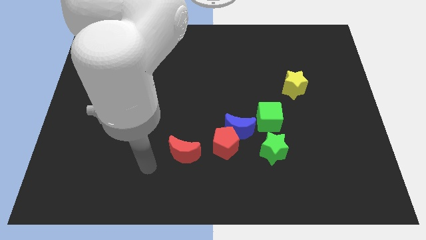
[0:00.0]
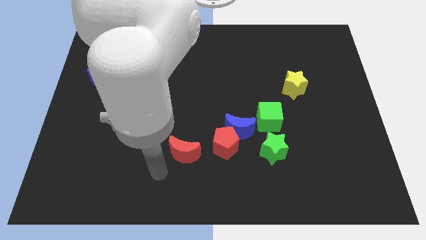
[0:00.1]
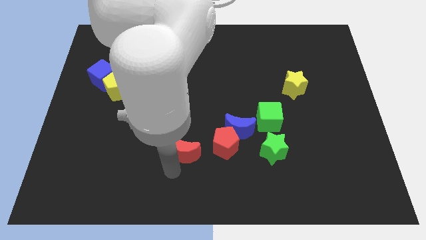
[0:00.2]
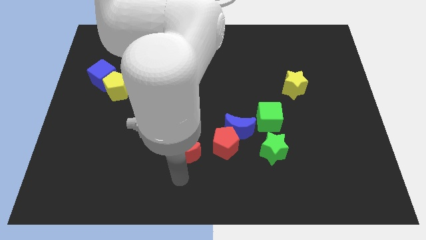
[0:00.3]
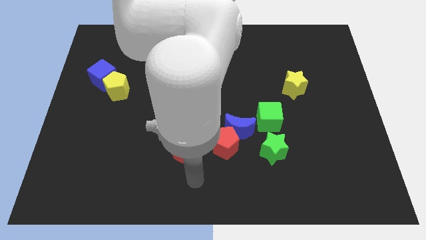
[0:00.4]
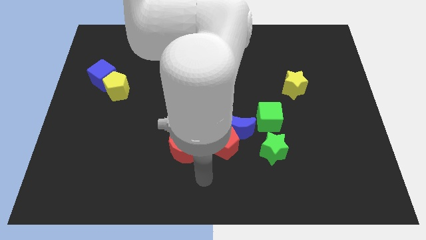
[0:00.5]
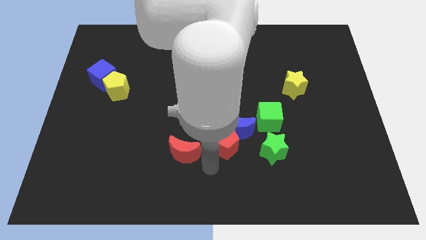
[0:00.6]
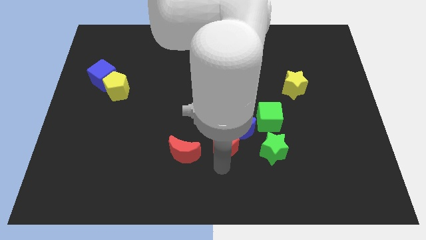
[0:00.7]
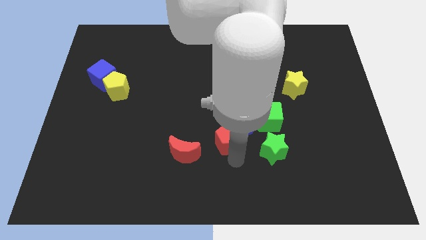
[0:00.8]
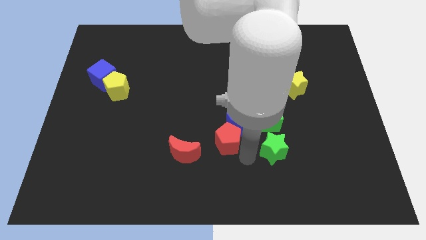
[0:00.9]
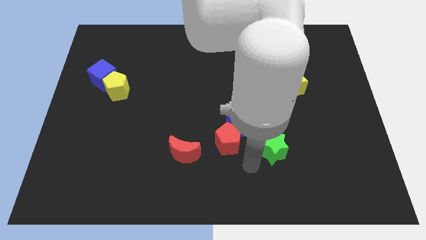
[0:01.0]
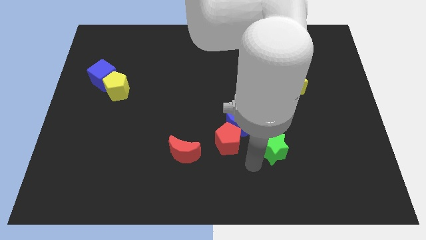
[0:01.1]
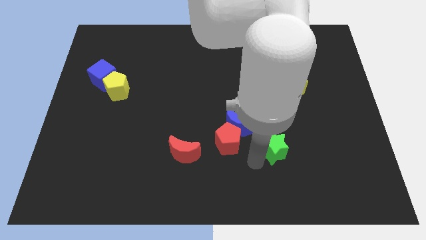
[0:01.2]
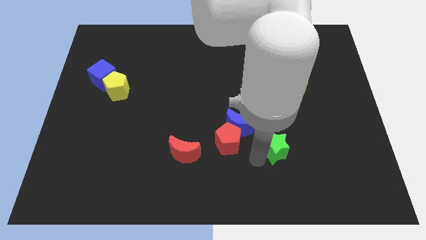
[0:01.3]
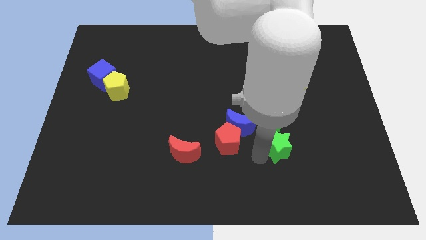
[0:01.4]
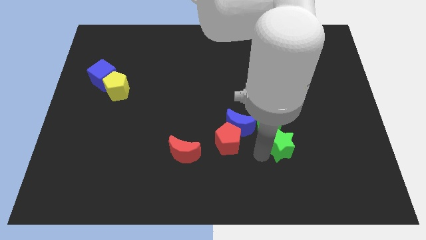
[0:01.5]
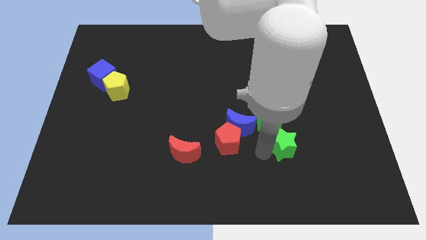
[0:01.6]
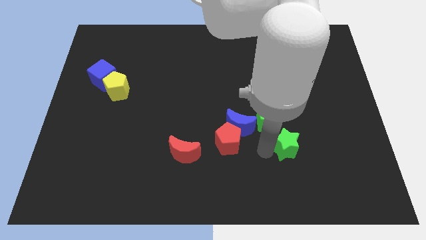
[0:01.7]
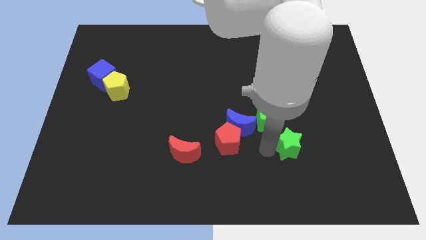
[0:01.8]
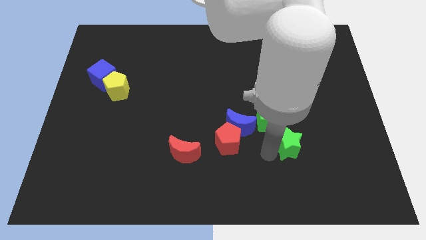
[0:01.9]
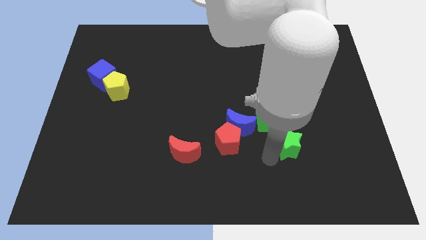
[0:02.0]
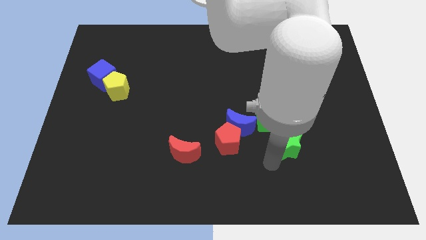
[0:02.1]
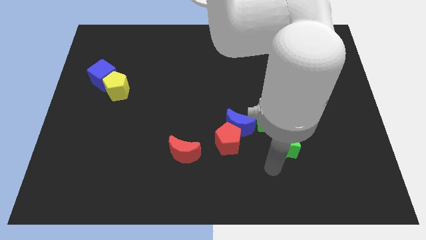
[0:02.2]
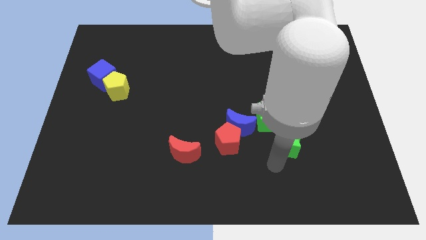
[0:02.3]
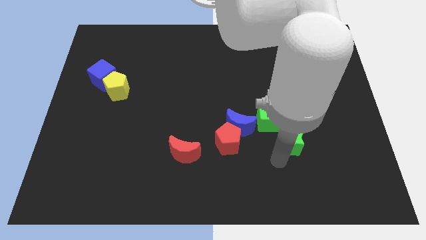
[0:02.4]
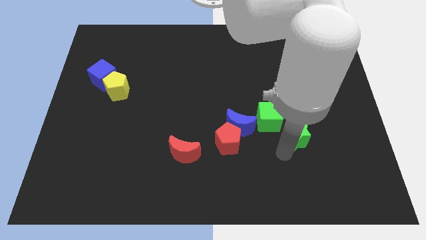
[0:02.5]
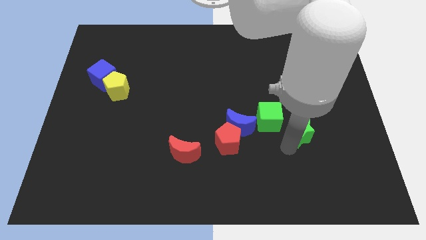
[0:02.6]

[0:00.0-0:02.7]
slightly slide the green star up and to the right diagonally

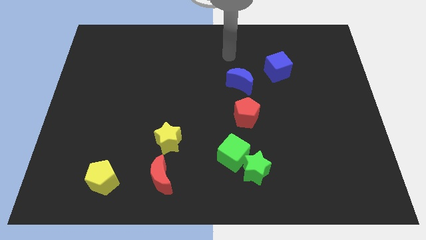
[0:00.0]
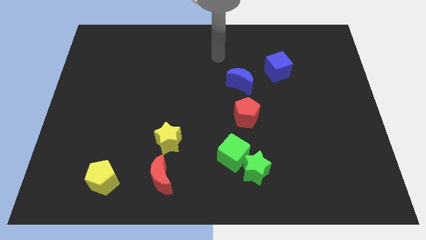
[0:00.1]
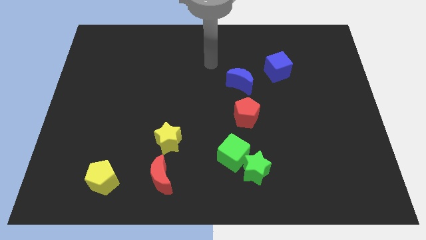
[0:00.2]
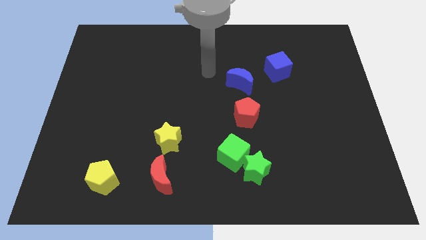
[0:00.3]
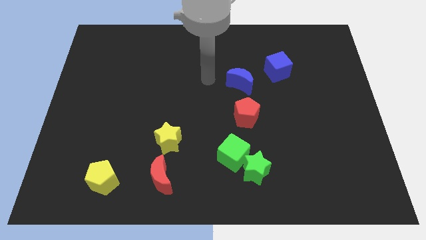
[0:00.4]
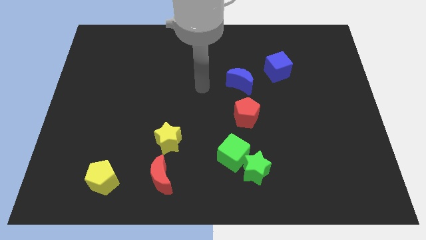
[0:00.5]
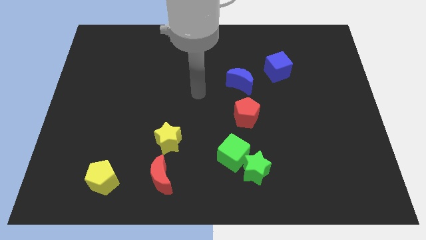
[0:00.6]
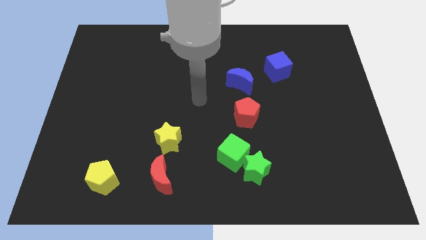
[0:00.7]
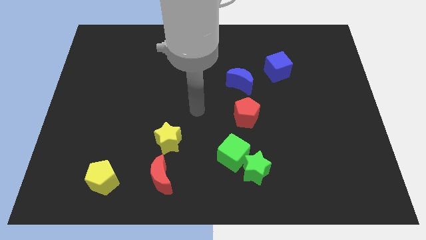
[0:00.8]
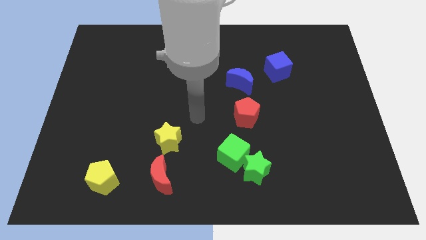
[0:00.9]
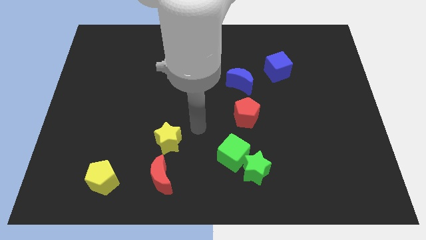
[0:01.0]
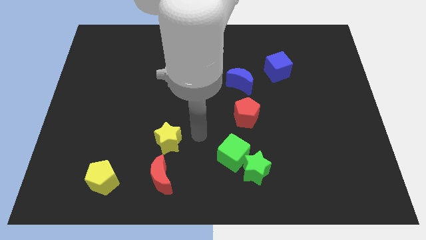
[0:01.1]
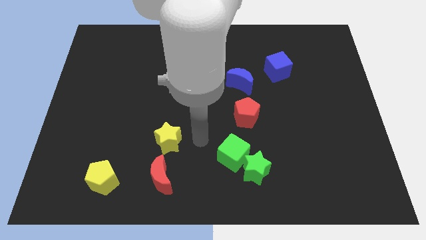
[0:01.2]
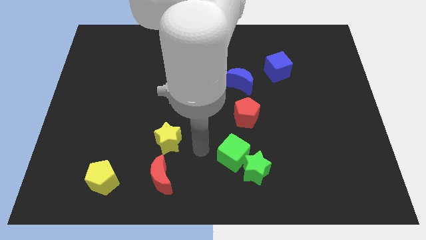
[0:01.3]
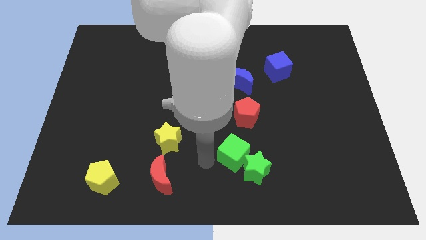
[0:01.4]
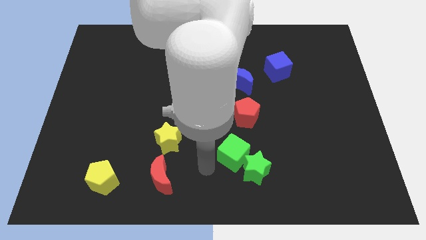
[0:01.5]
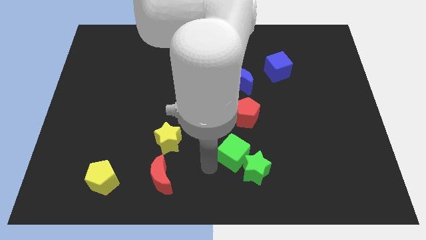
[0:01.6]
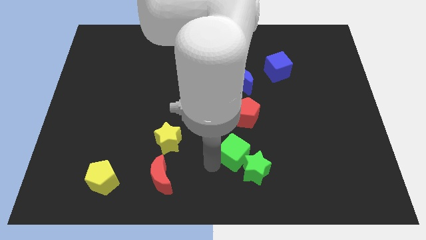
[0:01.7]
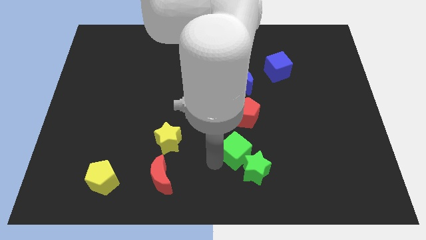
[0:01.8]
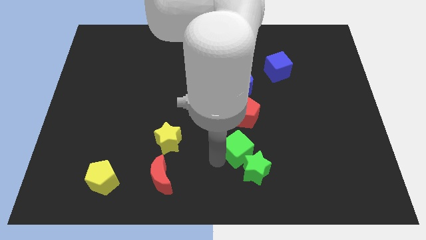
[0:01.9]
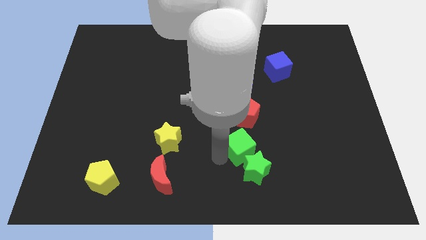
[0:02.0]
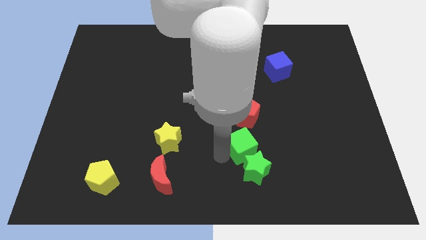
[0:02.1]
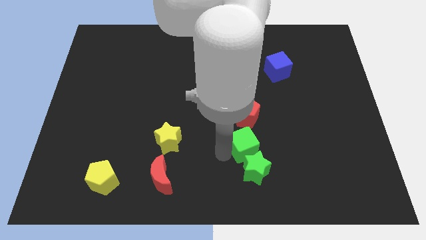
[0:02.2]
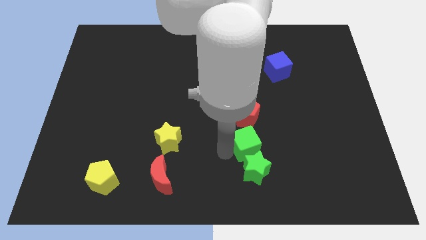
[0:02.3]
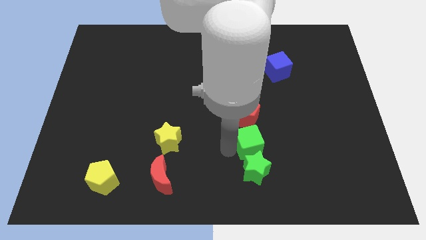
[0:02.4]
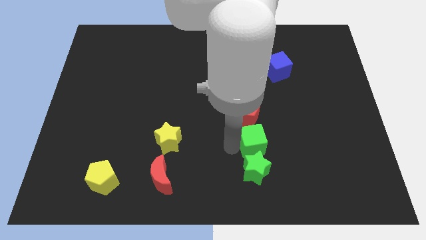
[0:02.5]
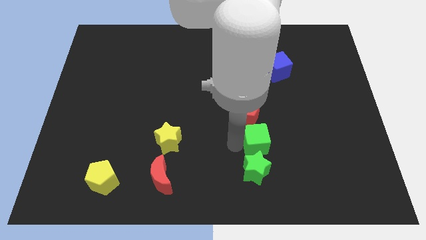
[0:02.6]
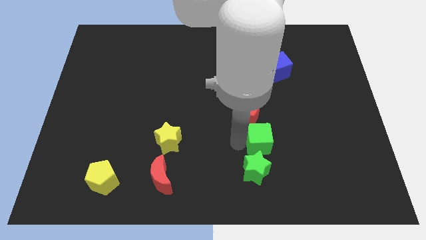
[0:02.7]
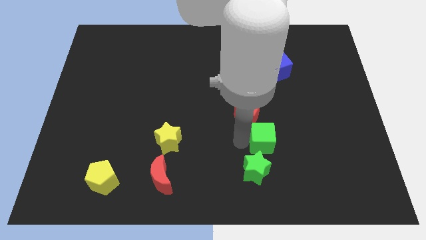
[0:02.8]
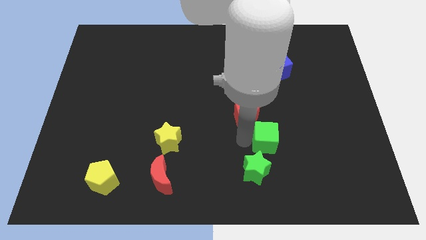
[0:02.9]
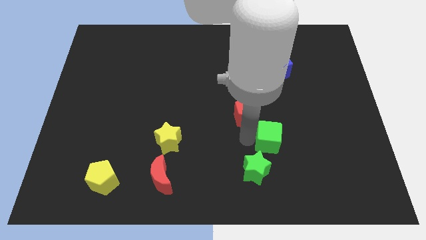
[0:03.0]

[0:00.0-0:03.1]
slide the green cube slightly to the right

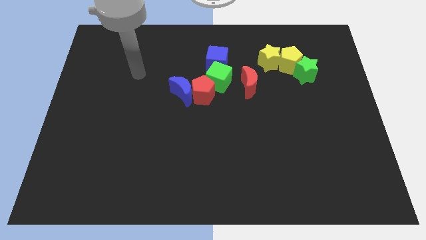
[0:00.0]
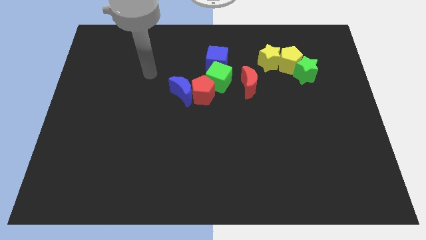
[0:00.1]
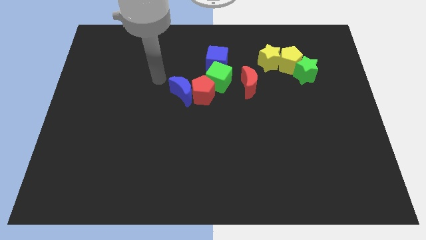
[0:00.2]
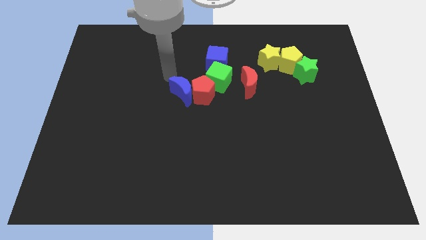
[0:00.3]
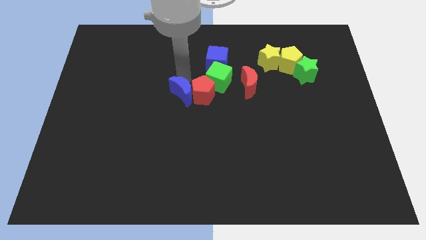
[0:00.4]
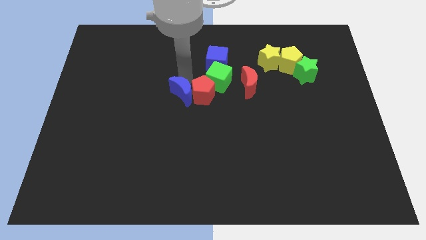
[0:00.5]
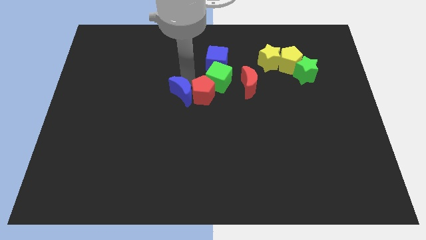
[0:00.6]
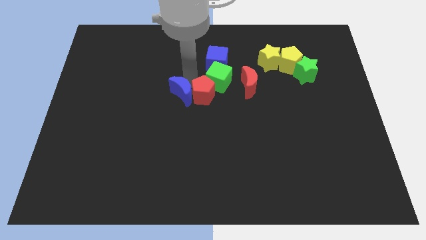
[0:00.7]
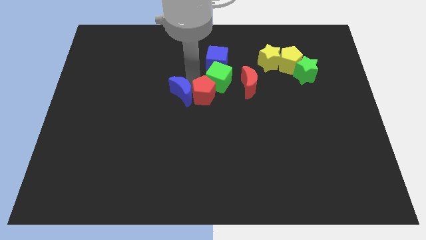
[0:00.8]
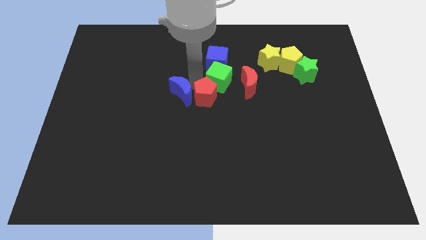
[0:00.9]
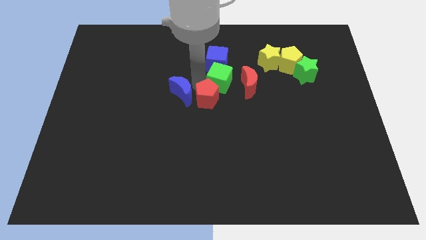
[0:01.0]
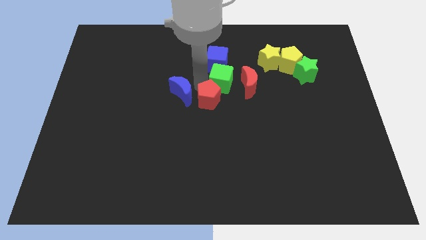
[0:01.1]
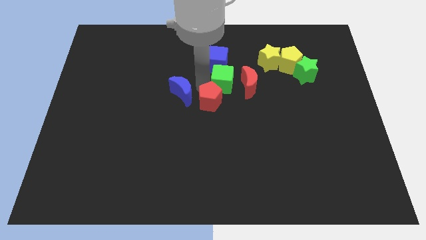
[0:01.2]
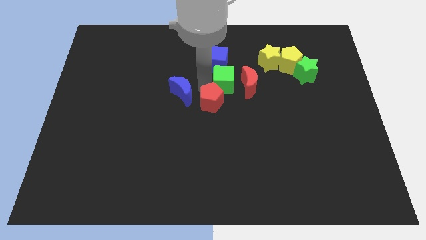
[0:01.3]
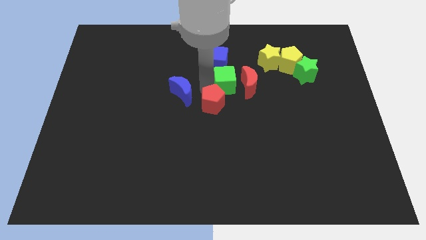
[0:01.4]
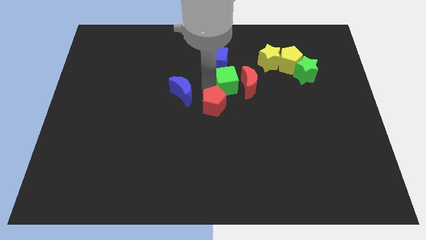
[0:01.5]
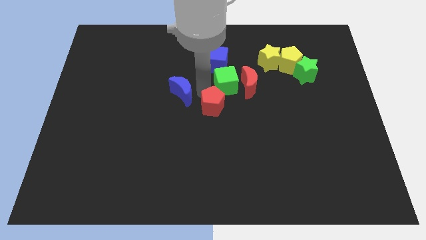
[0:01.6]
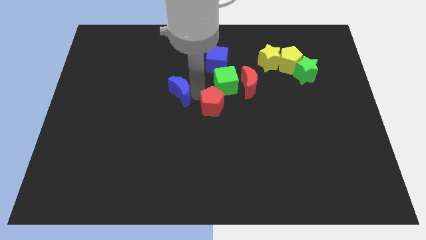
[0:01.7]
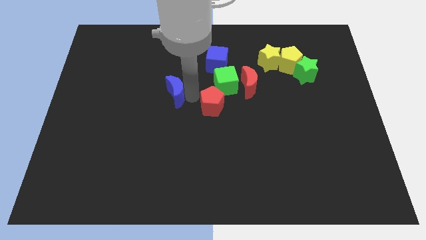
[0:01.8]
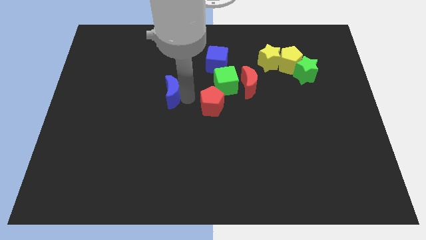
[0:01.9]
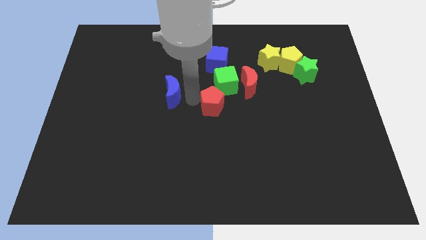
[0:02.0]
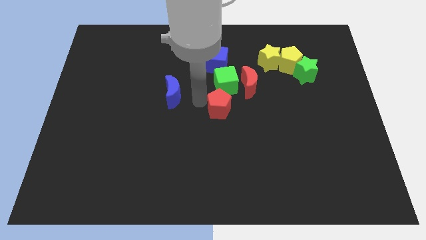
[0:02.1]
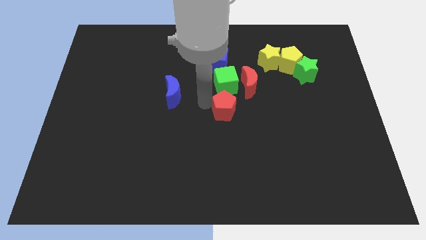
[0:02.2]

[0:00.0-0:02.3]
push the red pentagon slightly diagonally downwards and right

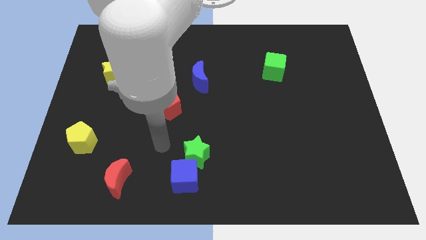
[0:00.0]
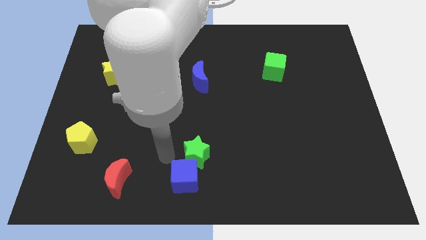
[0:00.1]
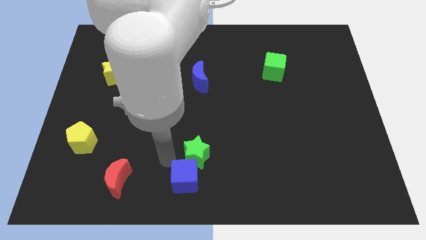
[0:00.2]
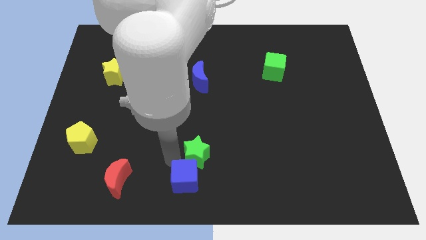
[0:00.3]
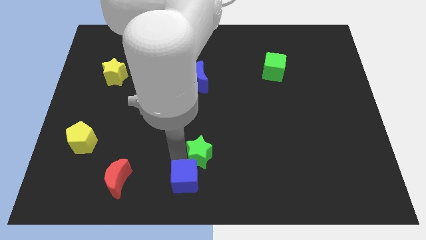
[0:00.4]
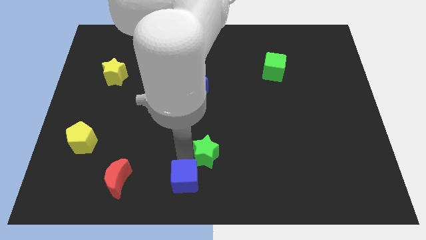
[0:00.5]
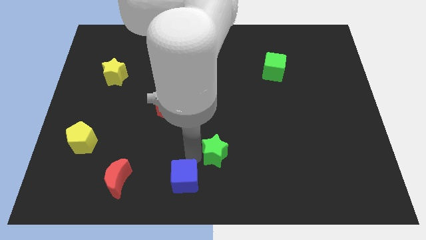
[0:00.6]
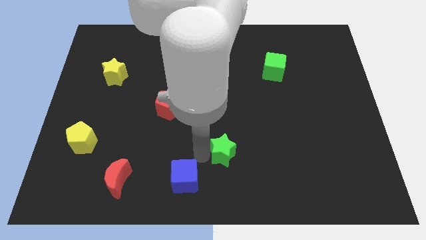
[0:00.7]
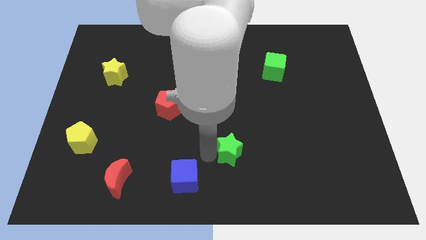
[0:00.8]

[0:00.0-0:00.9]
slide the green star to the right somewhat
